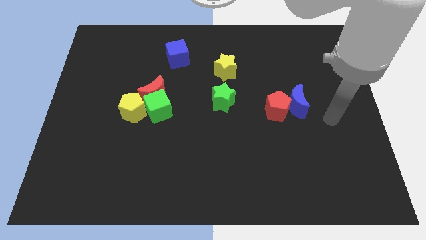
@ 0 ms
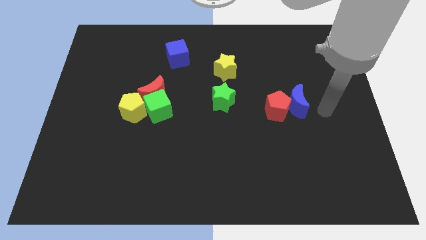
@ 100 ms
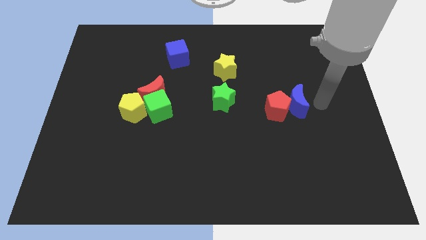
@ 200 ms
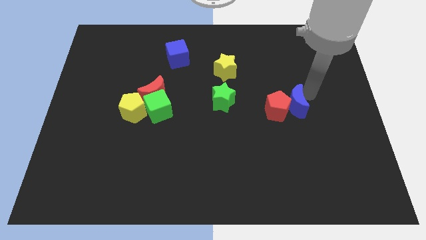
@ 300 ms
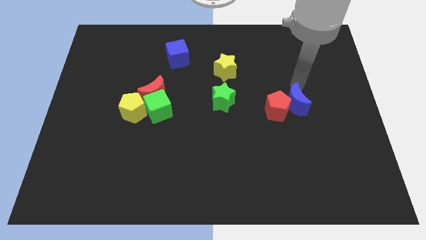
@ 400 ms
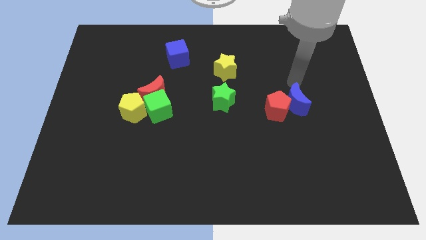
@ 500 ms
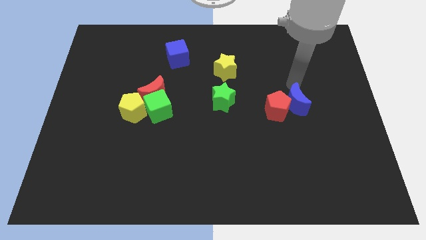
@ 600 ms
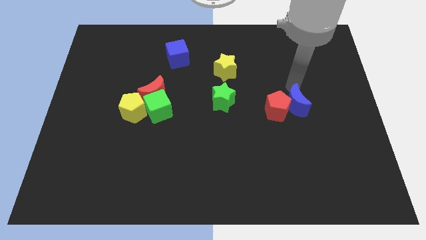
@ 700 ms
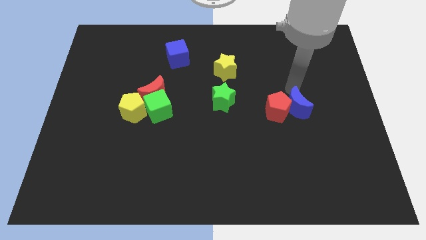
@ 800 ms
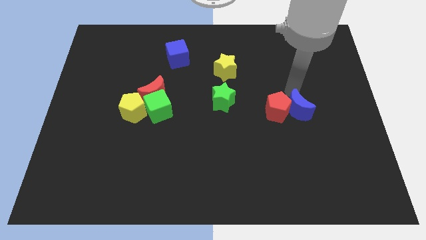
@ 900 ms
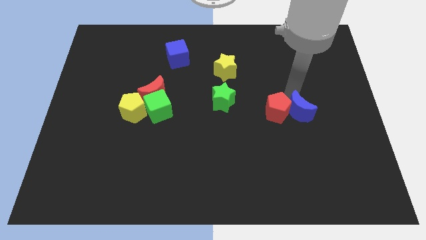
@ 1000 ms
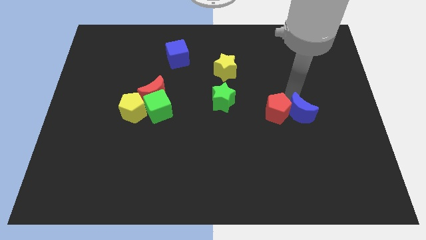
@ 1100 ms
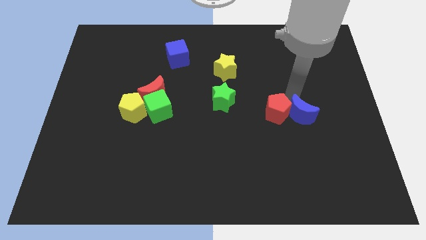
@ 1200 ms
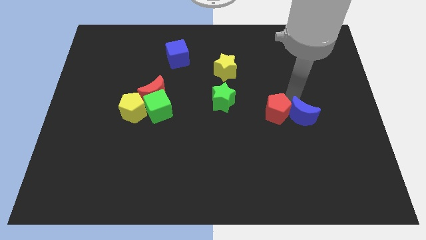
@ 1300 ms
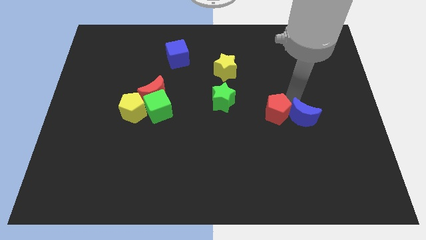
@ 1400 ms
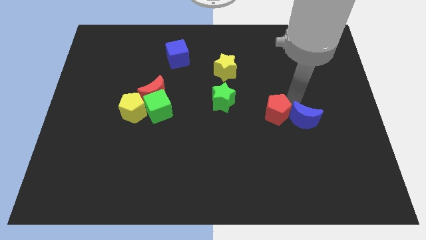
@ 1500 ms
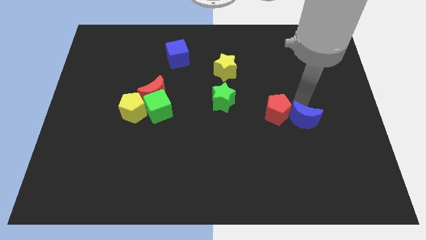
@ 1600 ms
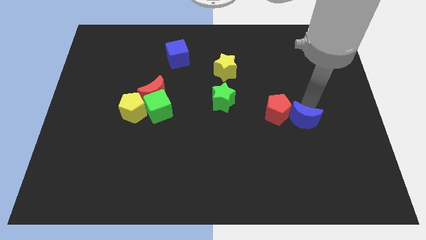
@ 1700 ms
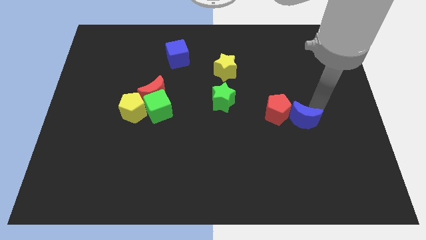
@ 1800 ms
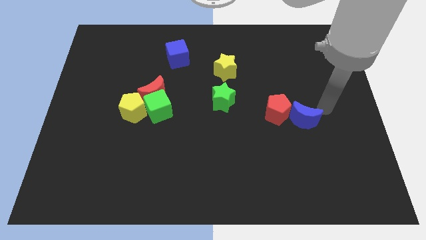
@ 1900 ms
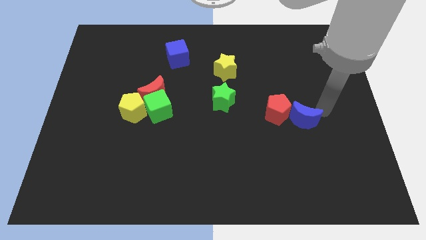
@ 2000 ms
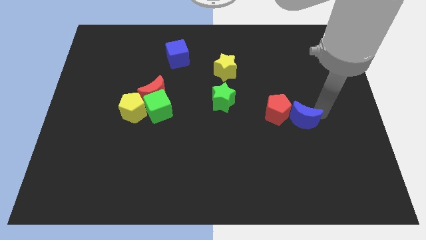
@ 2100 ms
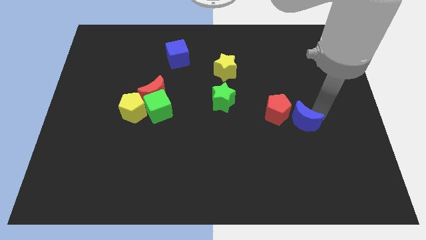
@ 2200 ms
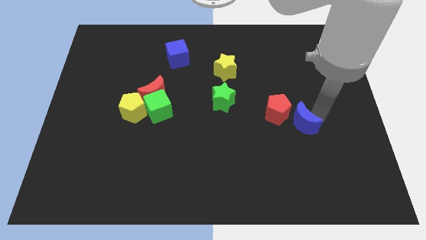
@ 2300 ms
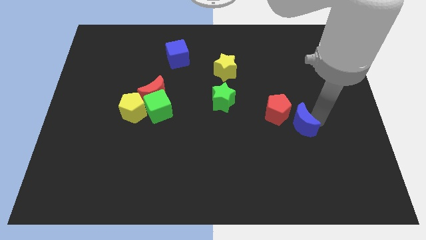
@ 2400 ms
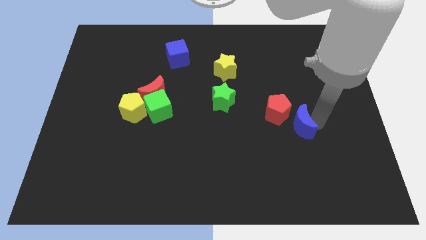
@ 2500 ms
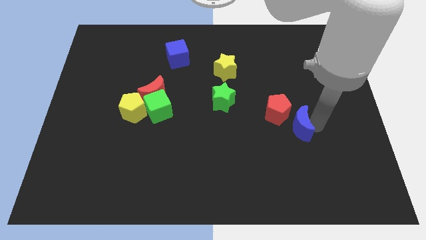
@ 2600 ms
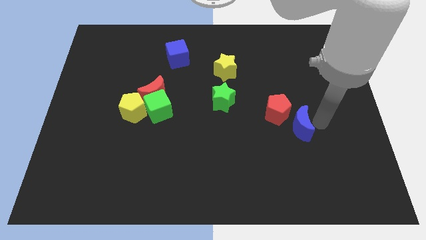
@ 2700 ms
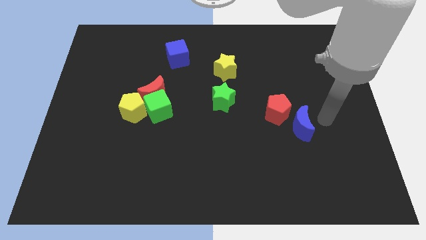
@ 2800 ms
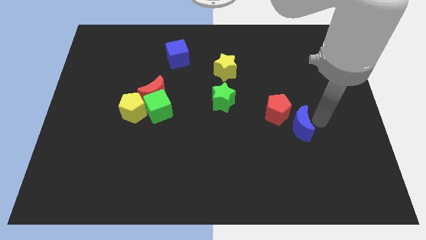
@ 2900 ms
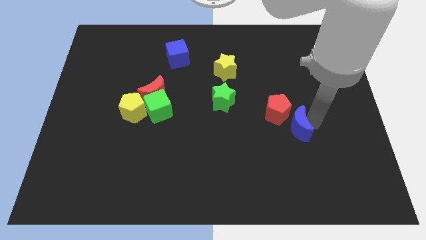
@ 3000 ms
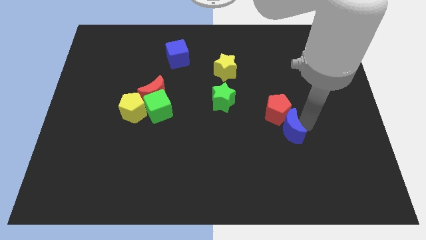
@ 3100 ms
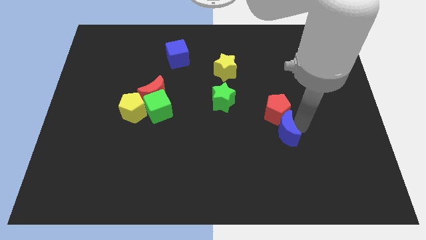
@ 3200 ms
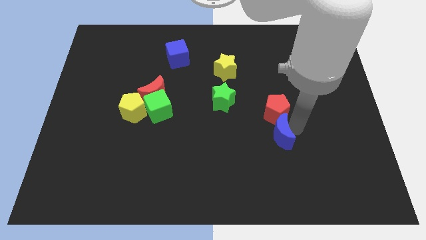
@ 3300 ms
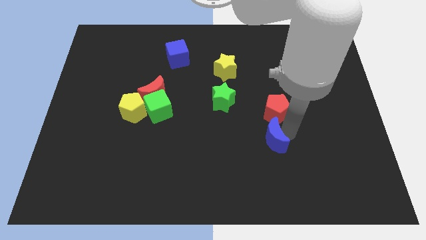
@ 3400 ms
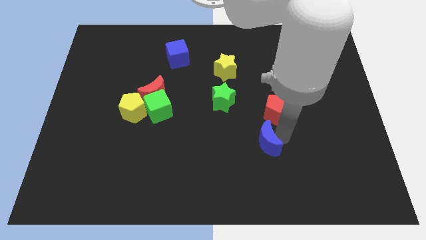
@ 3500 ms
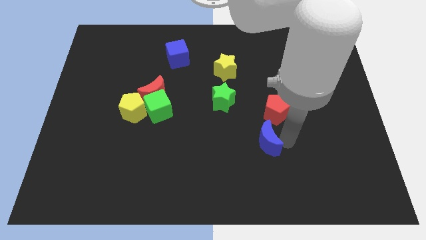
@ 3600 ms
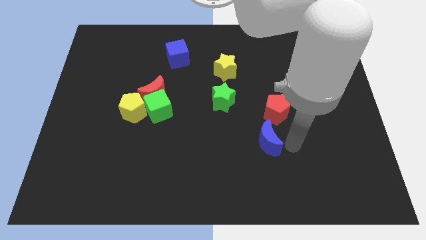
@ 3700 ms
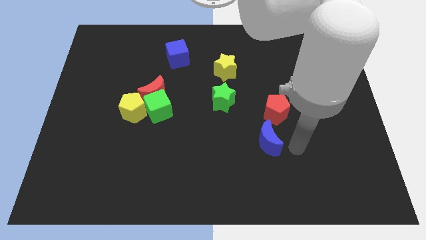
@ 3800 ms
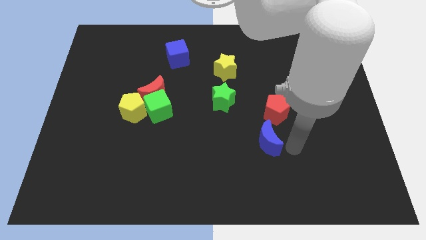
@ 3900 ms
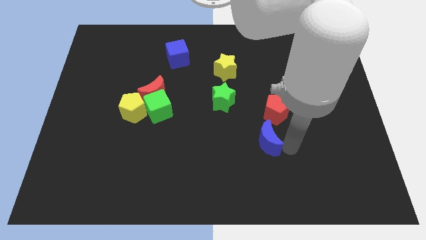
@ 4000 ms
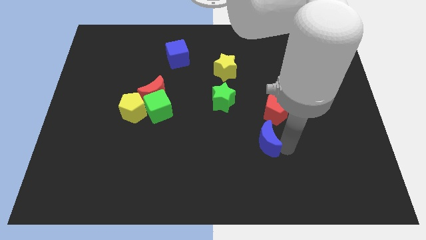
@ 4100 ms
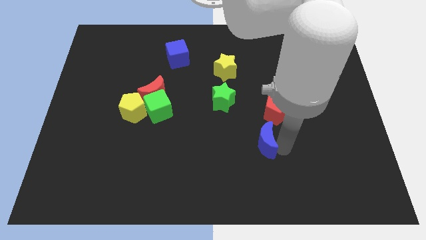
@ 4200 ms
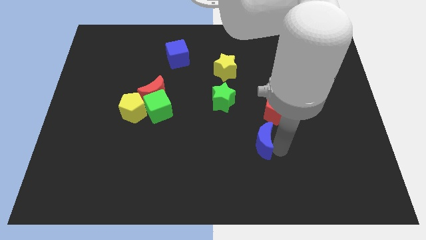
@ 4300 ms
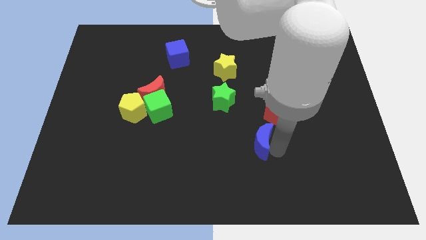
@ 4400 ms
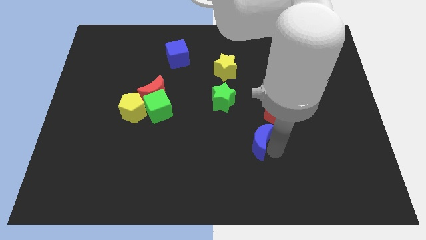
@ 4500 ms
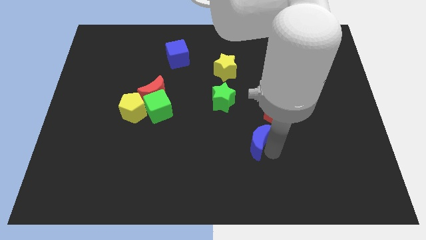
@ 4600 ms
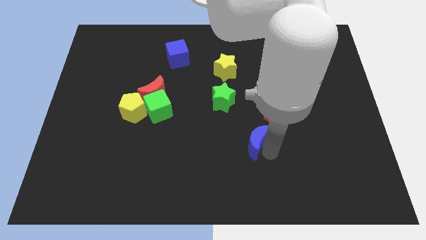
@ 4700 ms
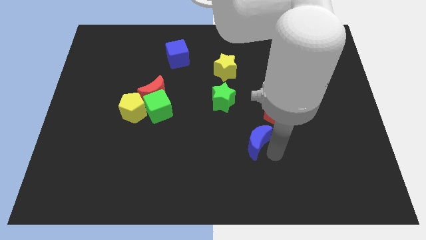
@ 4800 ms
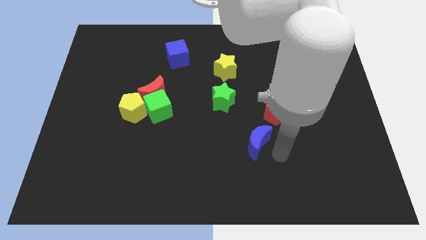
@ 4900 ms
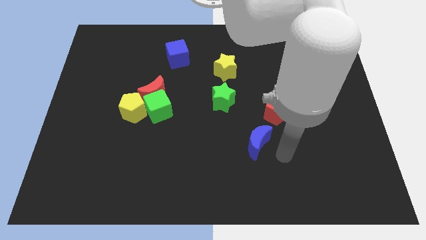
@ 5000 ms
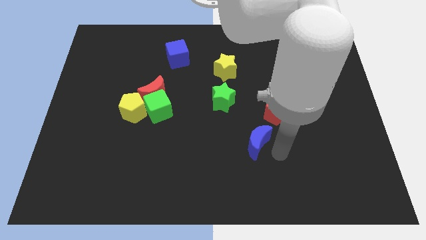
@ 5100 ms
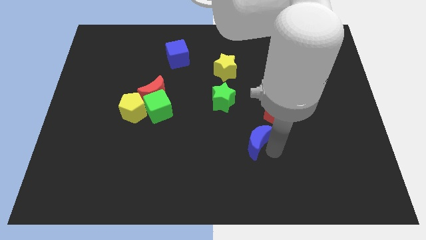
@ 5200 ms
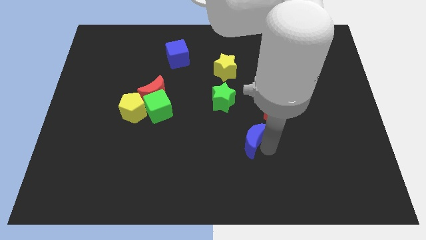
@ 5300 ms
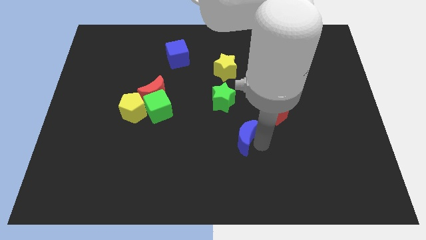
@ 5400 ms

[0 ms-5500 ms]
put the blue moon to the bottom side of the green star

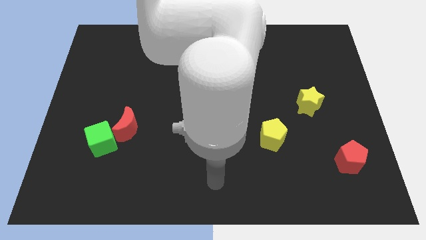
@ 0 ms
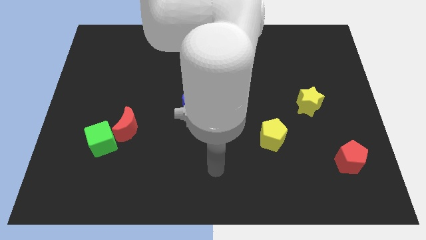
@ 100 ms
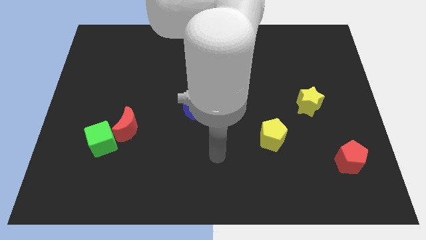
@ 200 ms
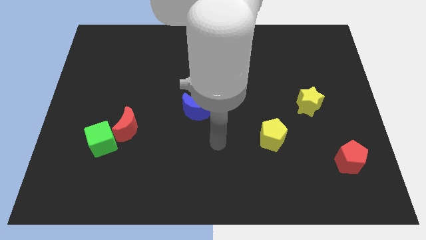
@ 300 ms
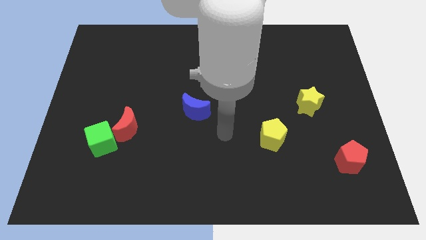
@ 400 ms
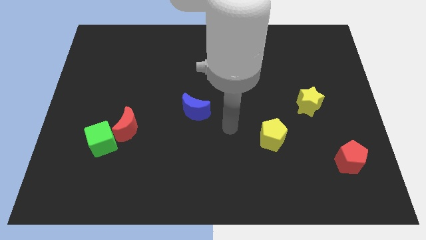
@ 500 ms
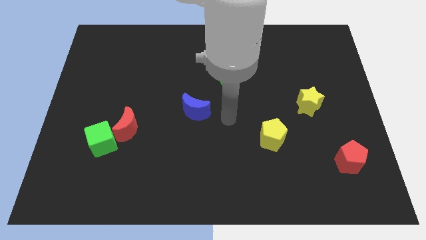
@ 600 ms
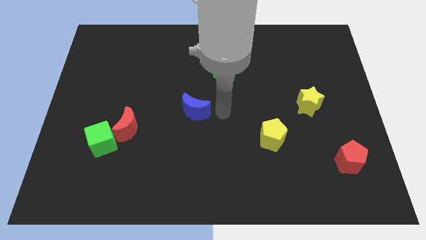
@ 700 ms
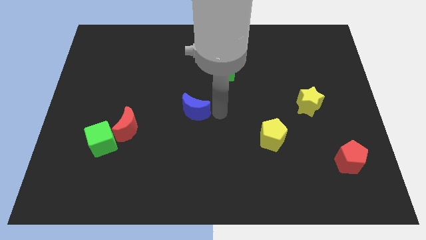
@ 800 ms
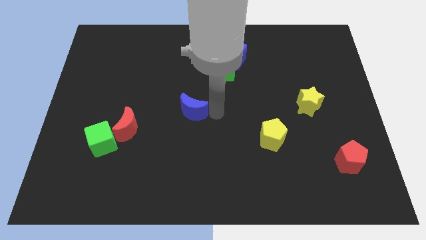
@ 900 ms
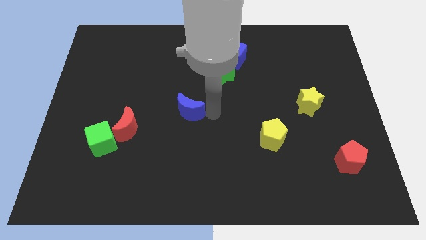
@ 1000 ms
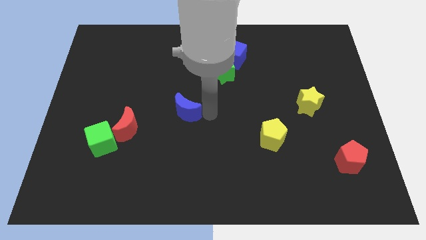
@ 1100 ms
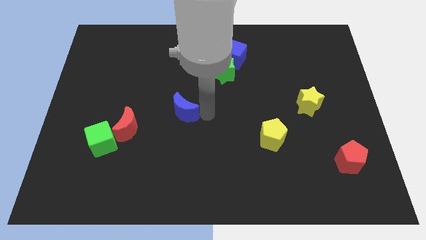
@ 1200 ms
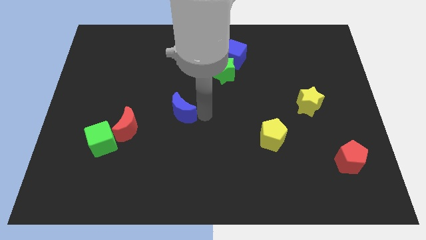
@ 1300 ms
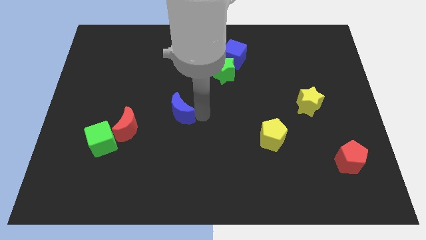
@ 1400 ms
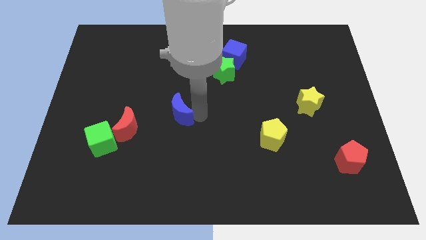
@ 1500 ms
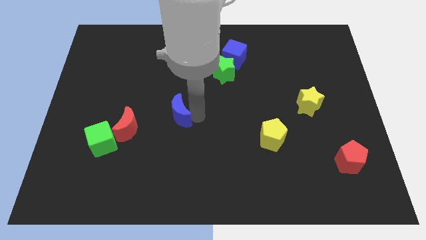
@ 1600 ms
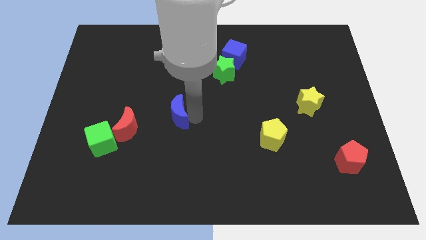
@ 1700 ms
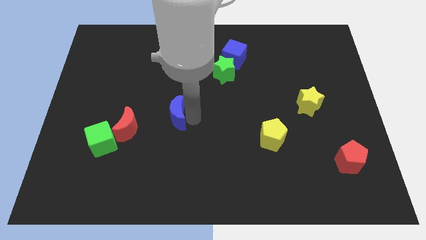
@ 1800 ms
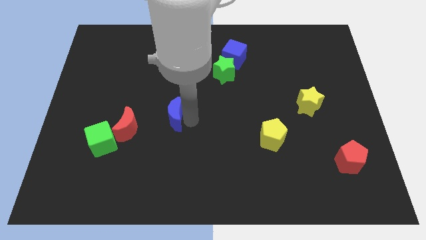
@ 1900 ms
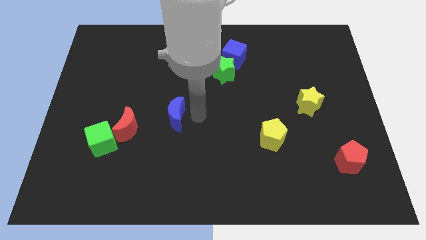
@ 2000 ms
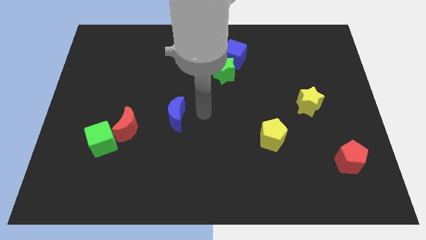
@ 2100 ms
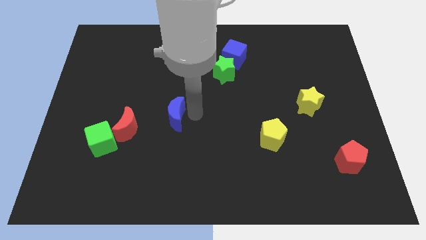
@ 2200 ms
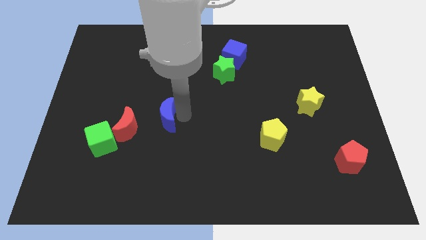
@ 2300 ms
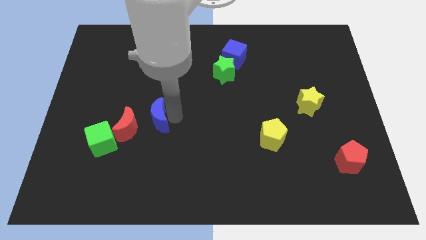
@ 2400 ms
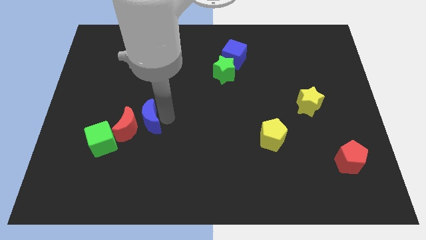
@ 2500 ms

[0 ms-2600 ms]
move the blue moon to the top right of the green cube
